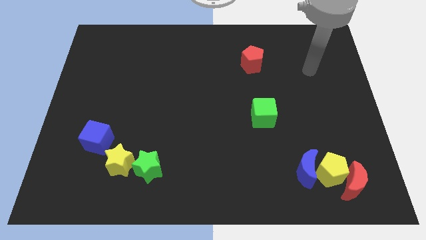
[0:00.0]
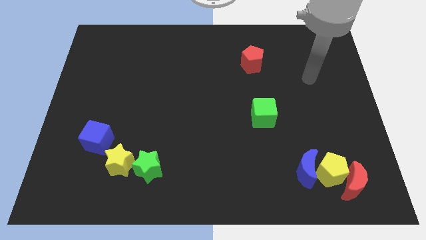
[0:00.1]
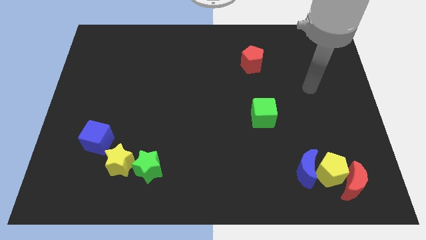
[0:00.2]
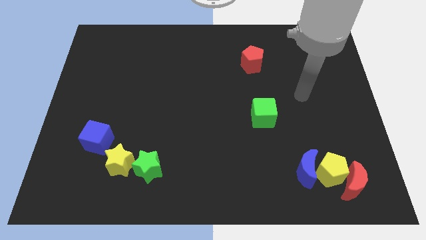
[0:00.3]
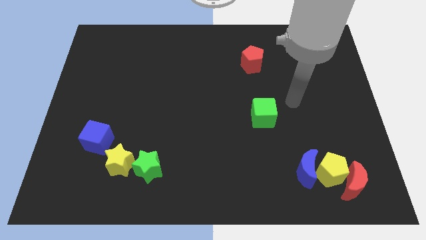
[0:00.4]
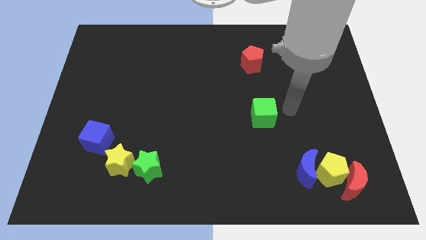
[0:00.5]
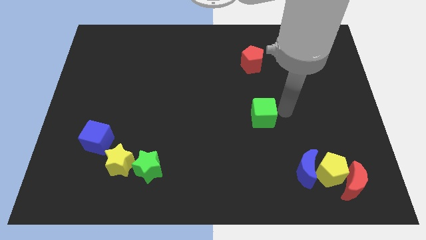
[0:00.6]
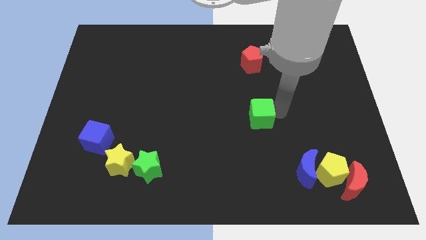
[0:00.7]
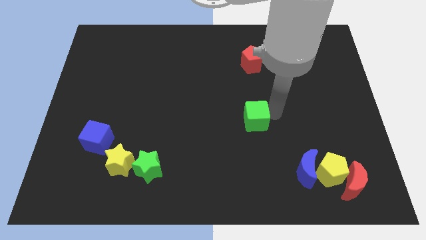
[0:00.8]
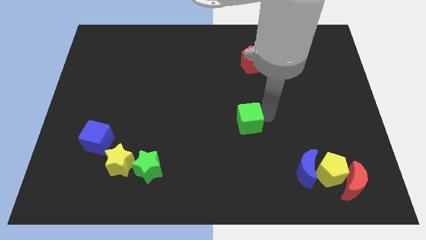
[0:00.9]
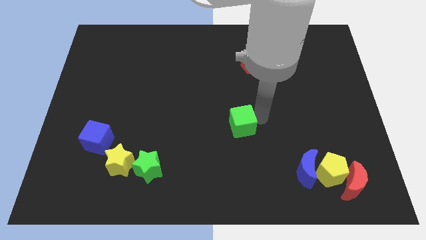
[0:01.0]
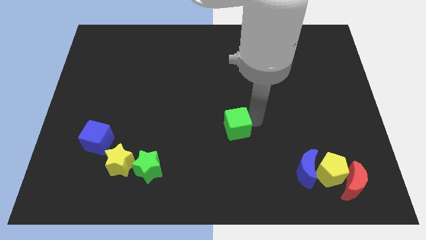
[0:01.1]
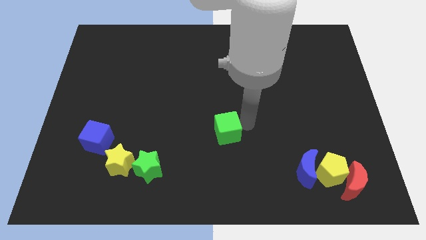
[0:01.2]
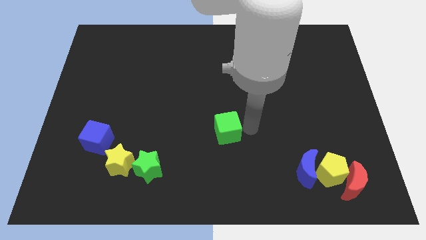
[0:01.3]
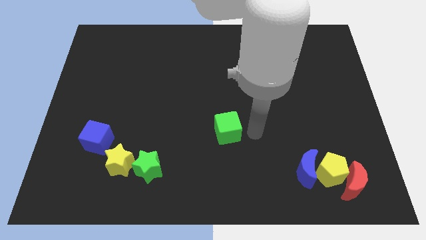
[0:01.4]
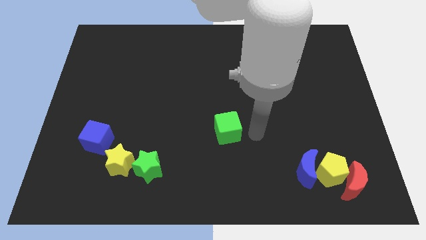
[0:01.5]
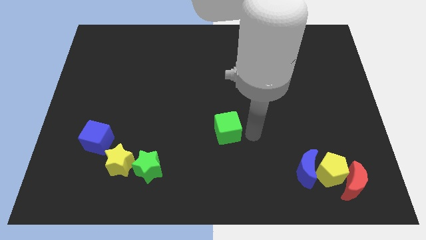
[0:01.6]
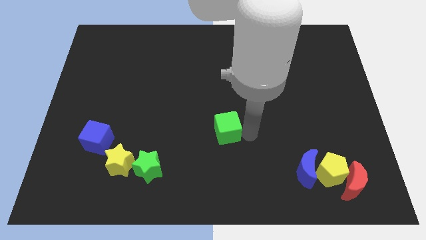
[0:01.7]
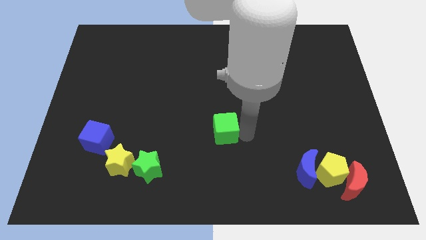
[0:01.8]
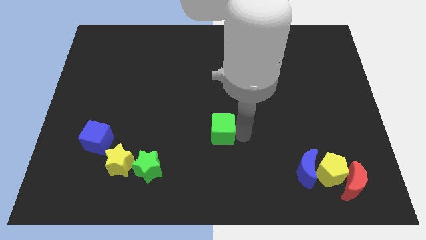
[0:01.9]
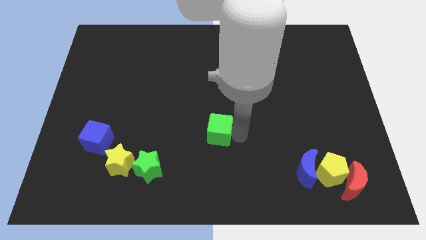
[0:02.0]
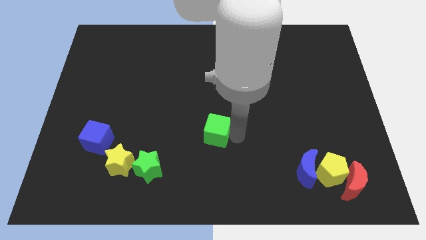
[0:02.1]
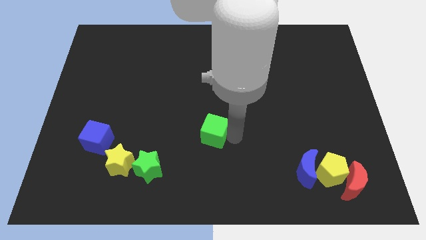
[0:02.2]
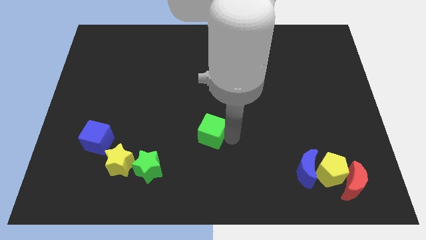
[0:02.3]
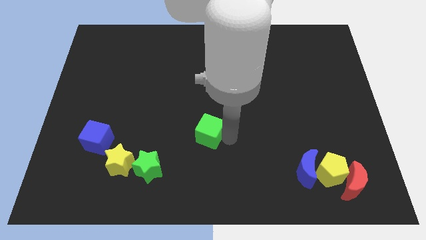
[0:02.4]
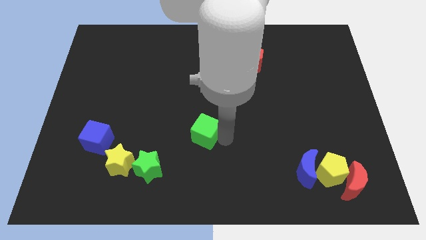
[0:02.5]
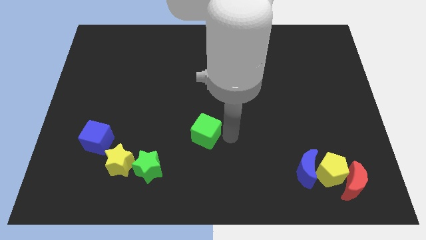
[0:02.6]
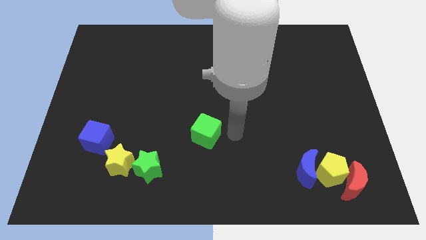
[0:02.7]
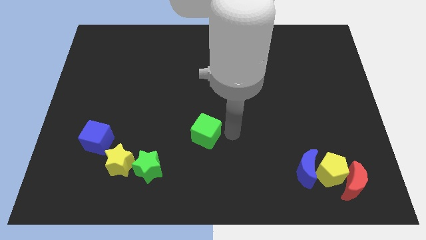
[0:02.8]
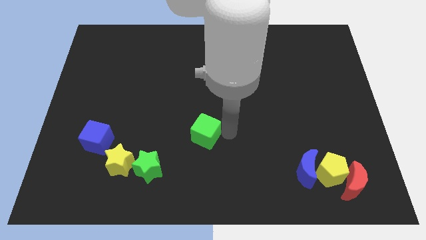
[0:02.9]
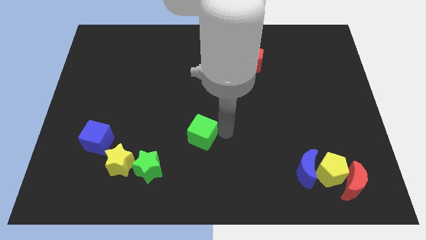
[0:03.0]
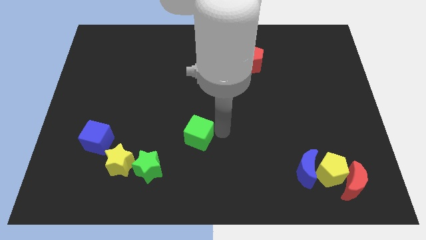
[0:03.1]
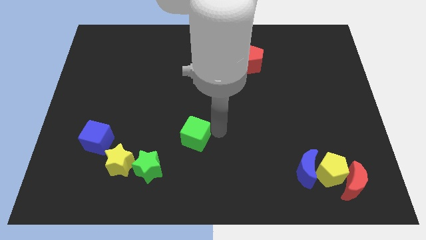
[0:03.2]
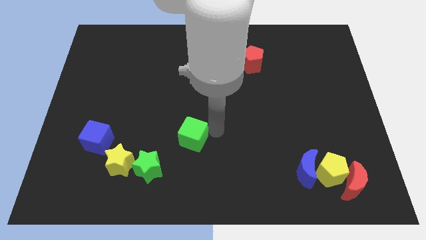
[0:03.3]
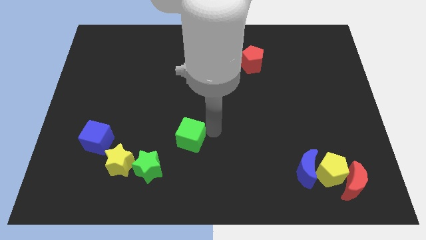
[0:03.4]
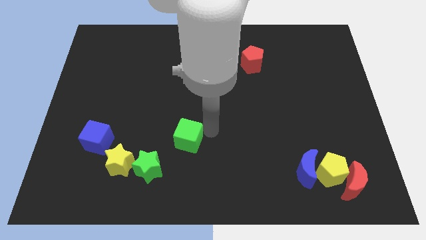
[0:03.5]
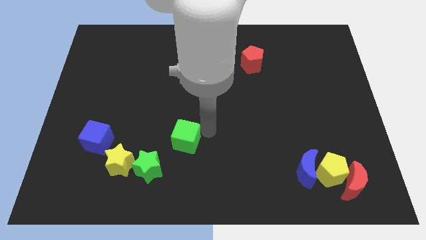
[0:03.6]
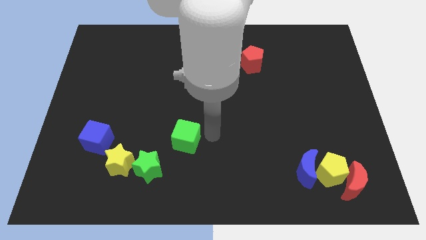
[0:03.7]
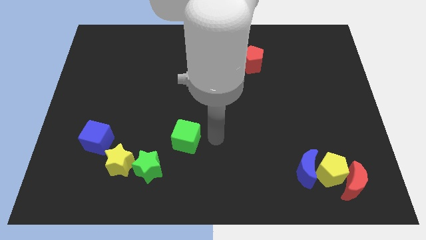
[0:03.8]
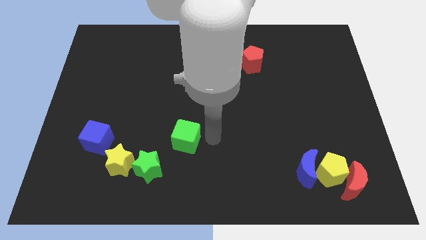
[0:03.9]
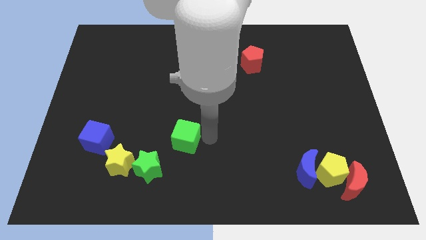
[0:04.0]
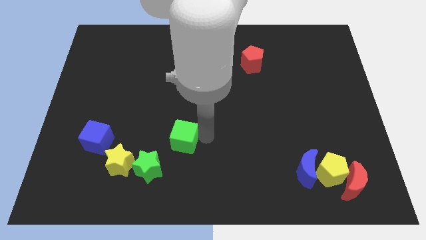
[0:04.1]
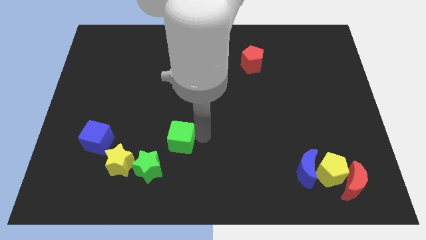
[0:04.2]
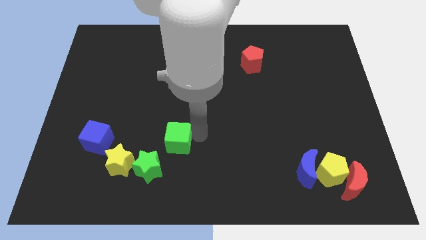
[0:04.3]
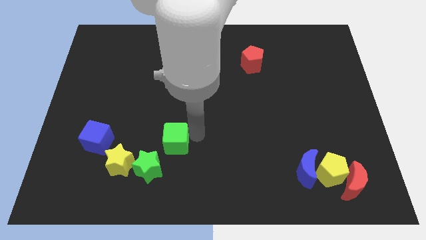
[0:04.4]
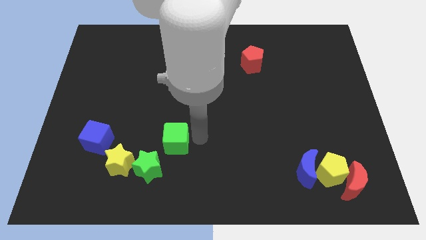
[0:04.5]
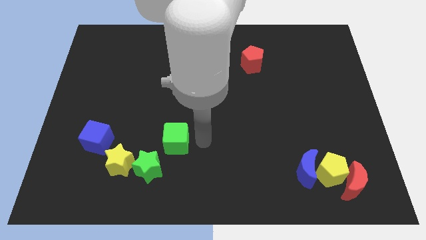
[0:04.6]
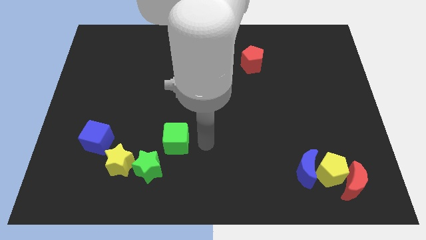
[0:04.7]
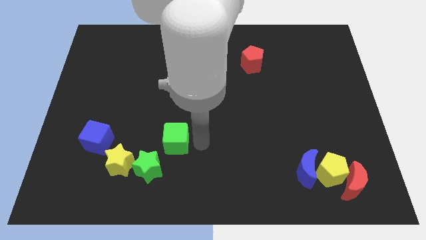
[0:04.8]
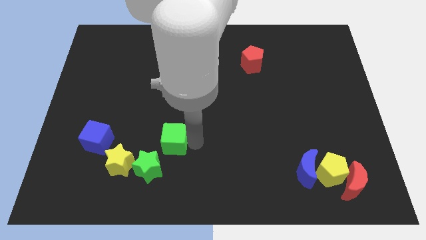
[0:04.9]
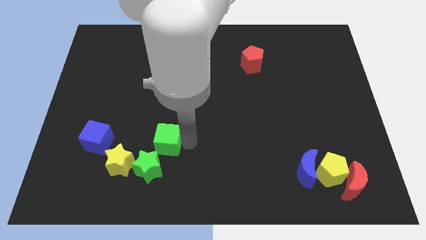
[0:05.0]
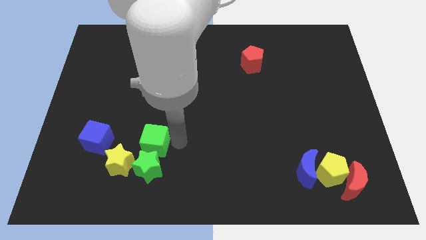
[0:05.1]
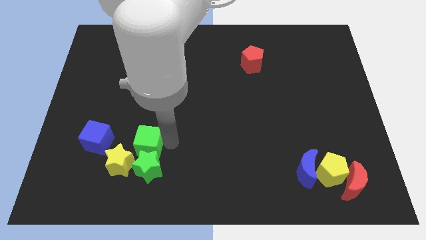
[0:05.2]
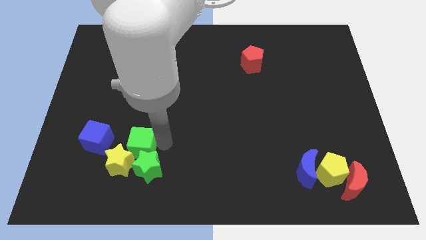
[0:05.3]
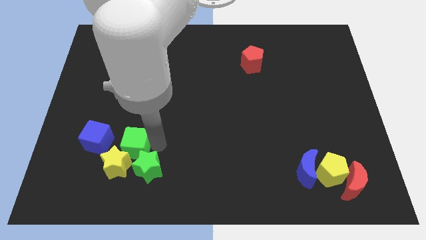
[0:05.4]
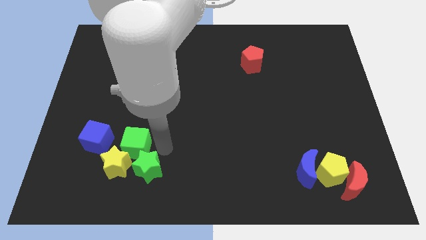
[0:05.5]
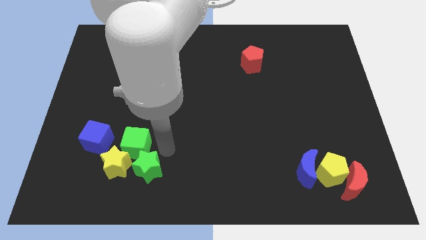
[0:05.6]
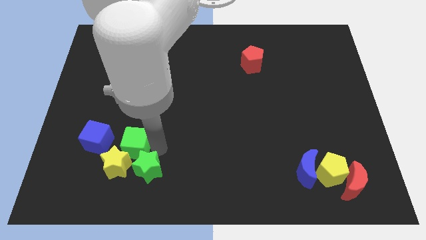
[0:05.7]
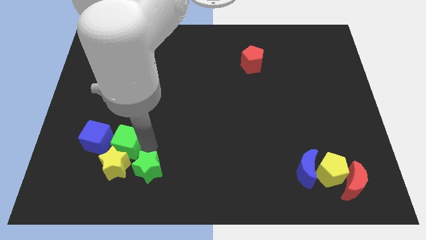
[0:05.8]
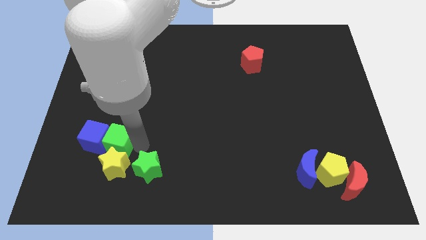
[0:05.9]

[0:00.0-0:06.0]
move the green cube towards the blue cube

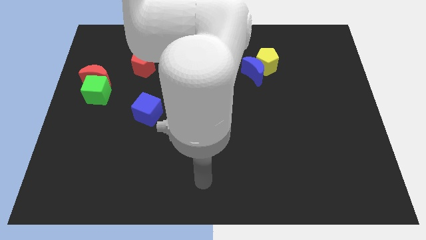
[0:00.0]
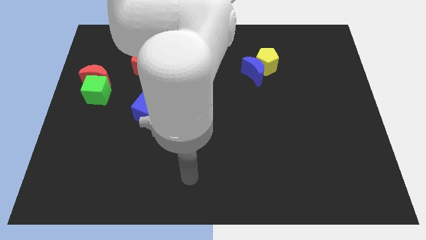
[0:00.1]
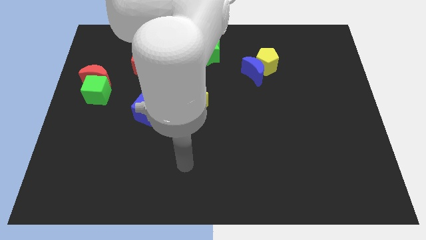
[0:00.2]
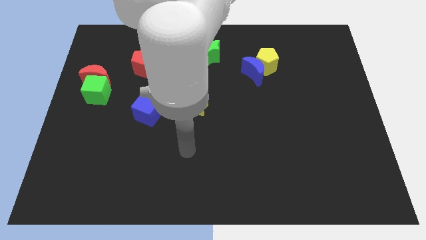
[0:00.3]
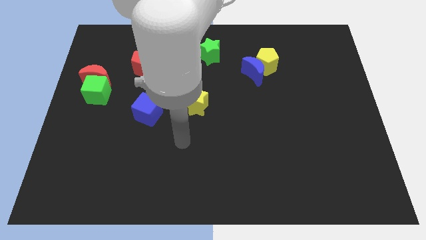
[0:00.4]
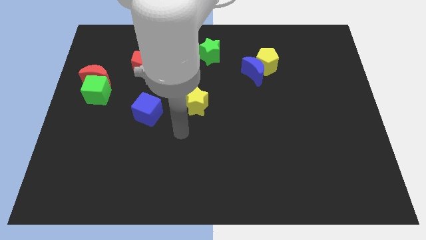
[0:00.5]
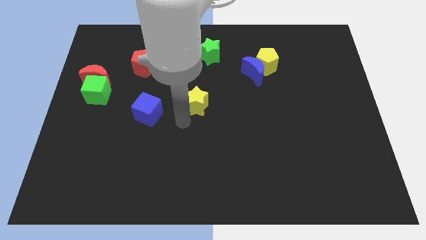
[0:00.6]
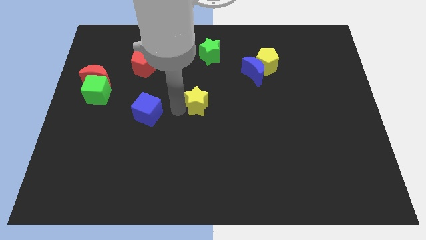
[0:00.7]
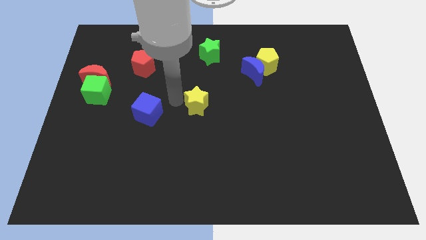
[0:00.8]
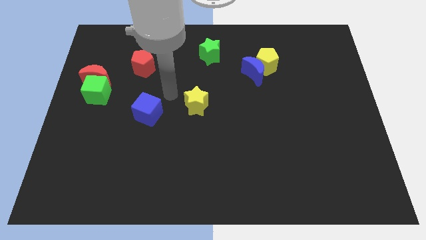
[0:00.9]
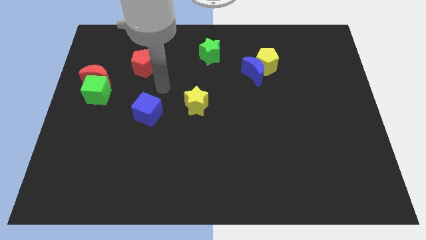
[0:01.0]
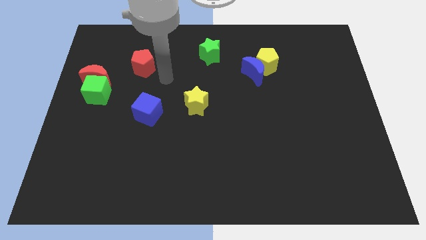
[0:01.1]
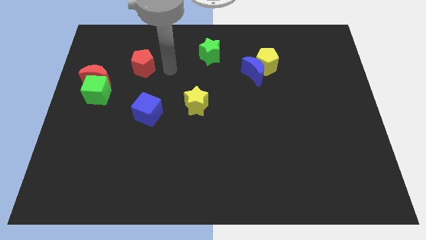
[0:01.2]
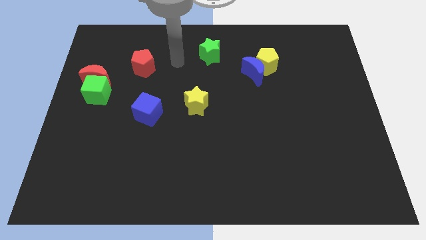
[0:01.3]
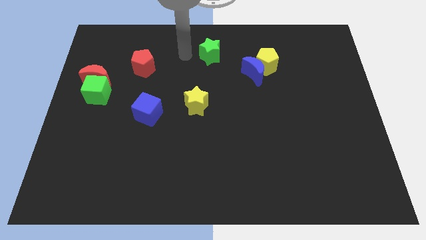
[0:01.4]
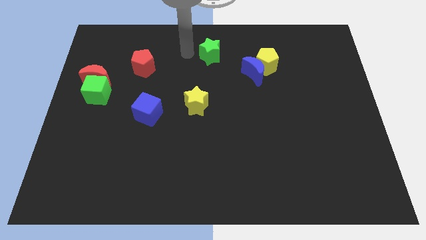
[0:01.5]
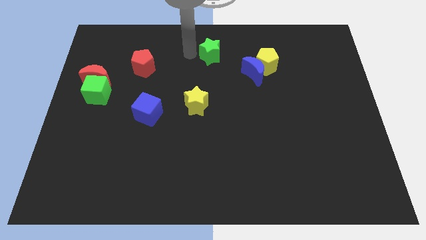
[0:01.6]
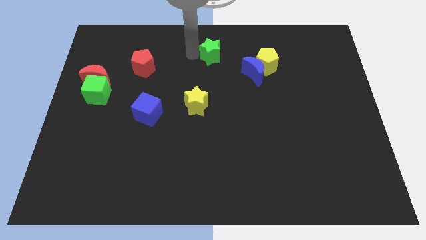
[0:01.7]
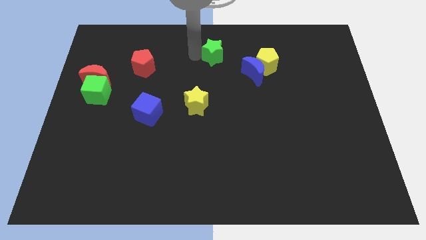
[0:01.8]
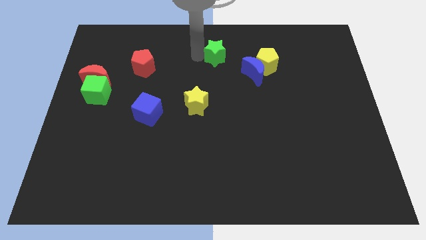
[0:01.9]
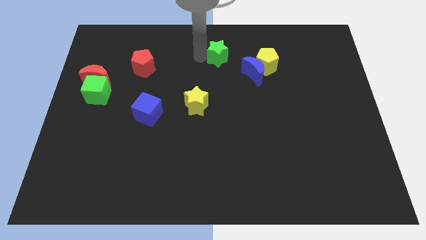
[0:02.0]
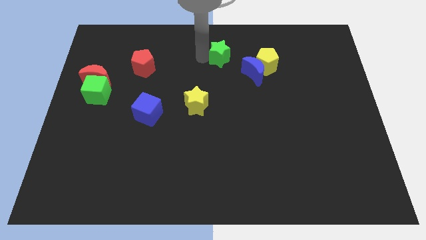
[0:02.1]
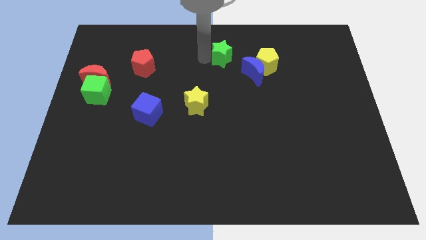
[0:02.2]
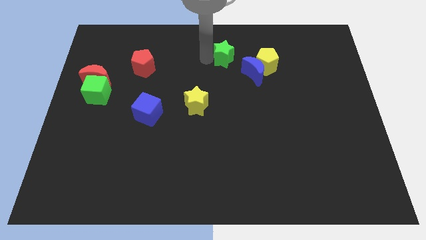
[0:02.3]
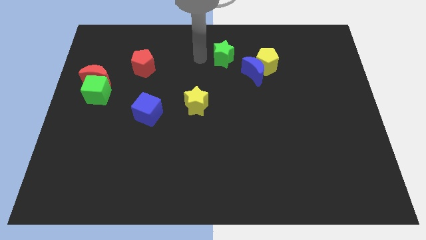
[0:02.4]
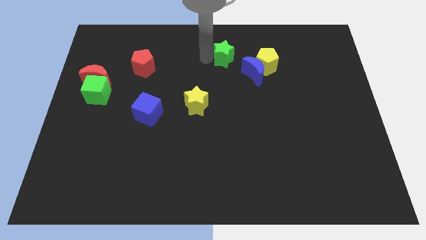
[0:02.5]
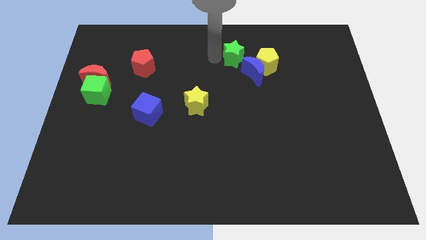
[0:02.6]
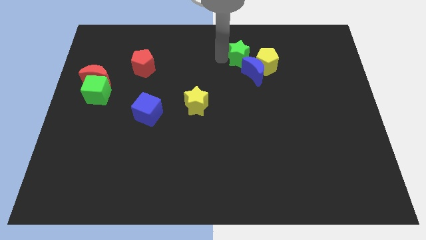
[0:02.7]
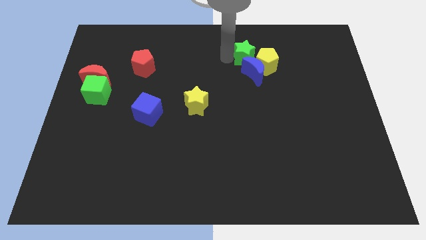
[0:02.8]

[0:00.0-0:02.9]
put the green star next to the yellow pentagon
